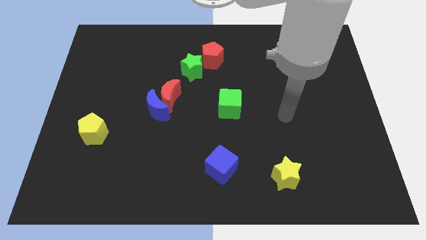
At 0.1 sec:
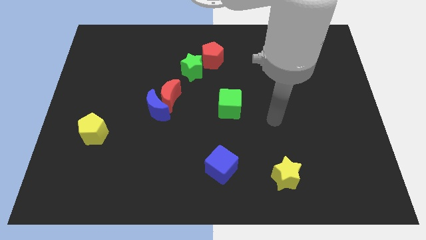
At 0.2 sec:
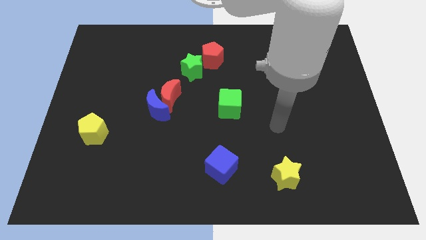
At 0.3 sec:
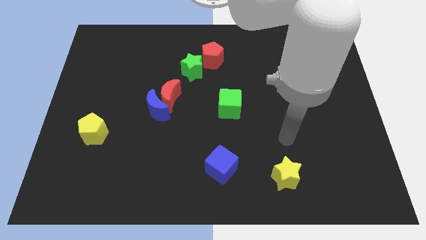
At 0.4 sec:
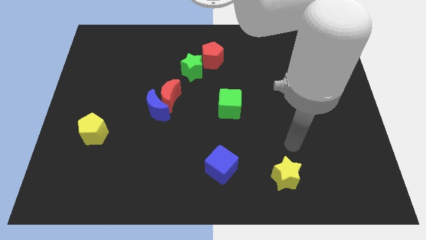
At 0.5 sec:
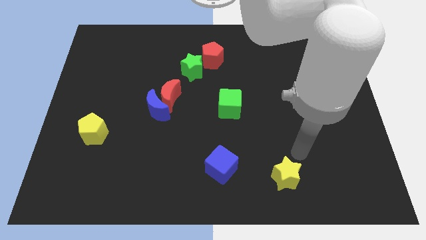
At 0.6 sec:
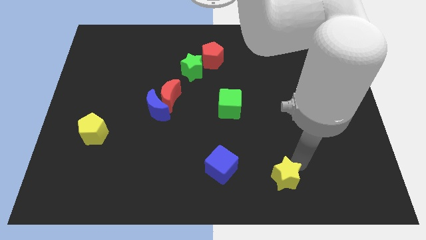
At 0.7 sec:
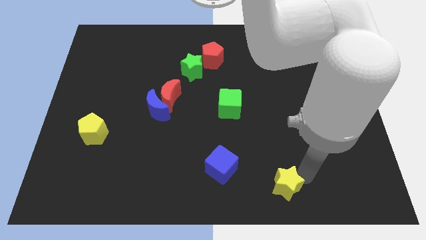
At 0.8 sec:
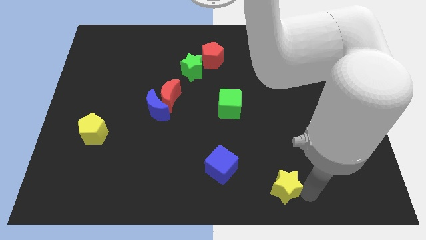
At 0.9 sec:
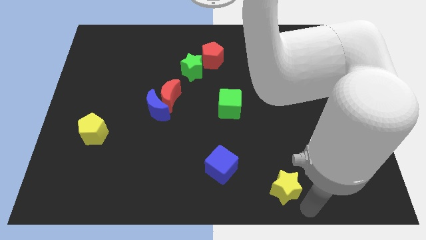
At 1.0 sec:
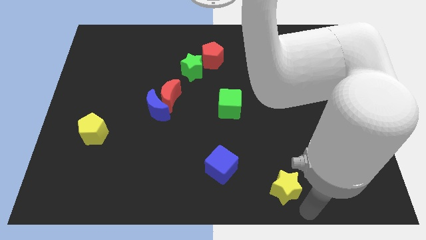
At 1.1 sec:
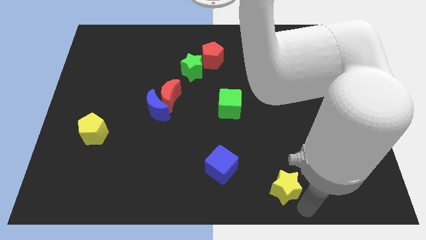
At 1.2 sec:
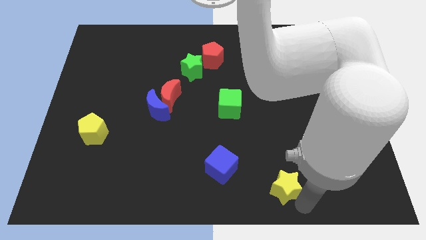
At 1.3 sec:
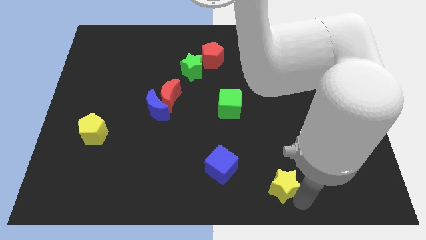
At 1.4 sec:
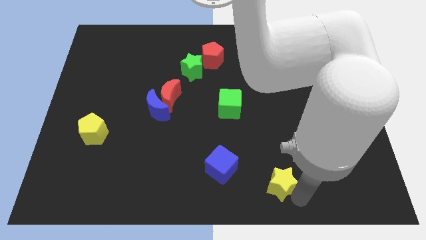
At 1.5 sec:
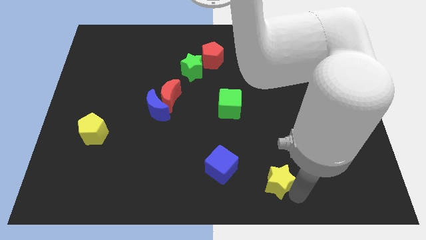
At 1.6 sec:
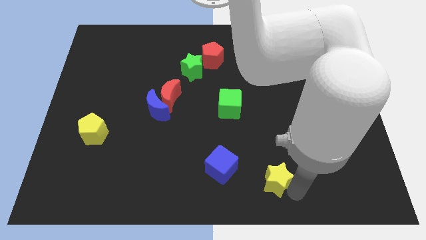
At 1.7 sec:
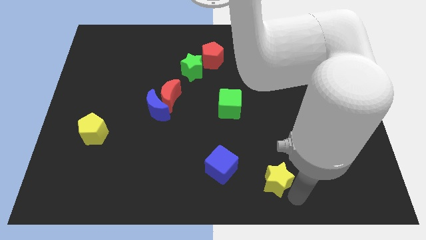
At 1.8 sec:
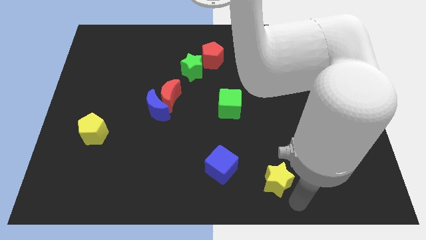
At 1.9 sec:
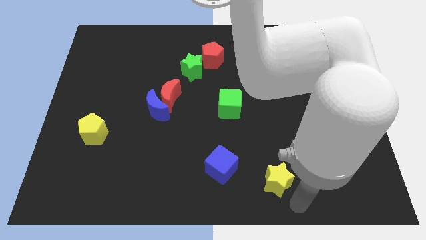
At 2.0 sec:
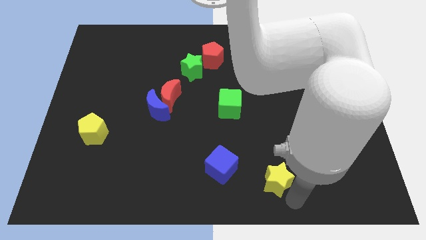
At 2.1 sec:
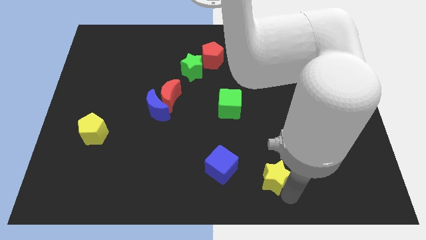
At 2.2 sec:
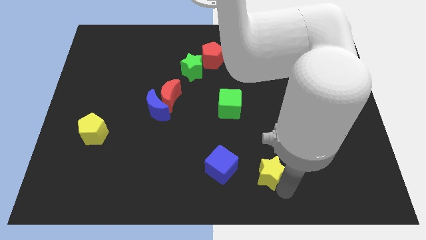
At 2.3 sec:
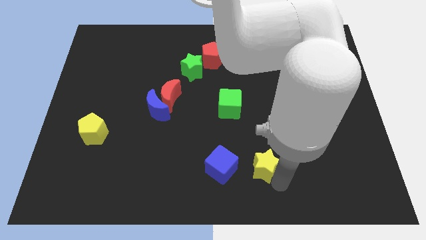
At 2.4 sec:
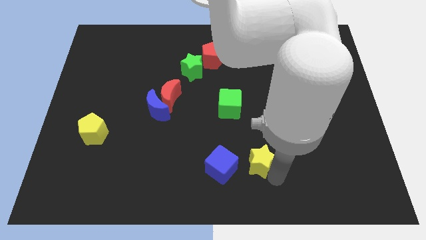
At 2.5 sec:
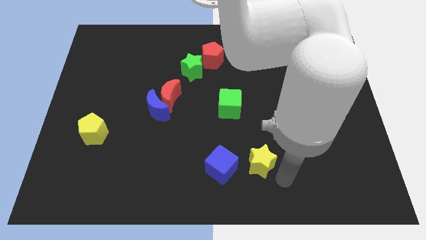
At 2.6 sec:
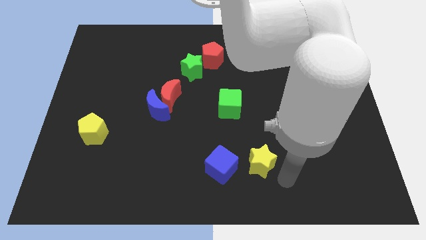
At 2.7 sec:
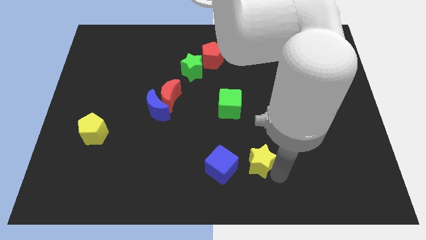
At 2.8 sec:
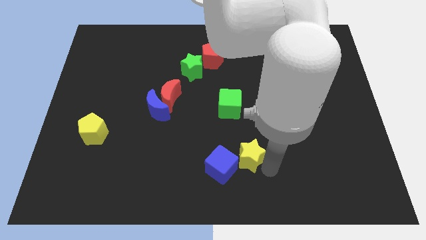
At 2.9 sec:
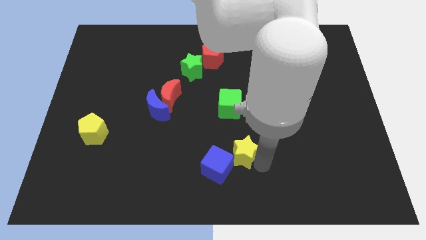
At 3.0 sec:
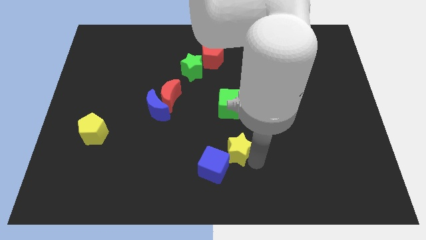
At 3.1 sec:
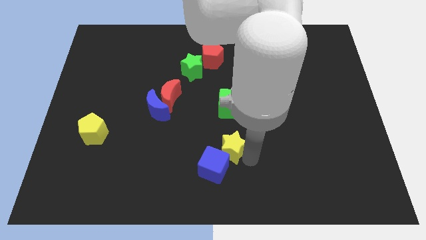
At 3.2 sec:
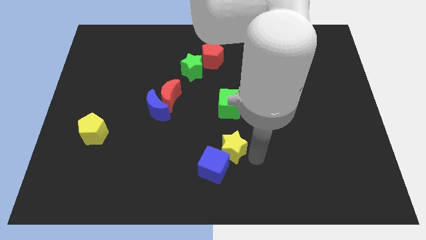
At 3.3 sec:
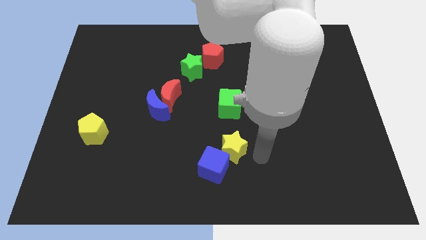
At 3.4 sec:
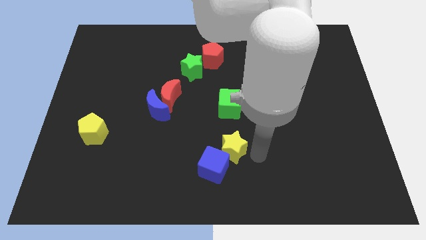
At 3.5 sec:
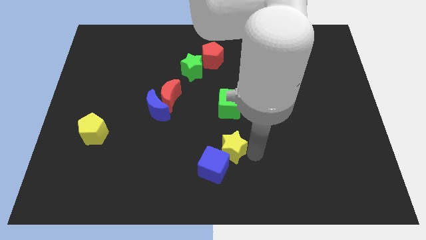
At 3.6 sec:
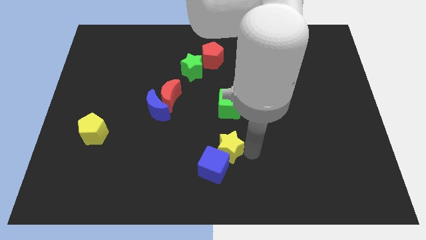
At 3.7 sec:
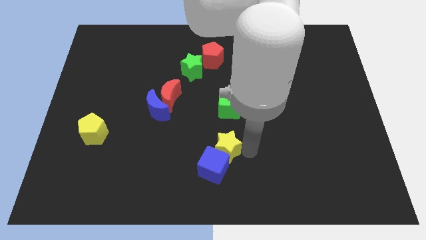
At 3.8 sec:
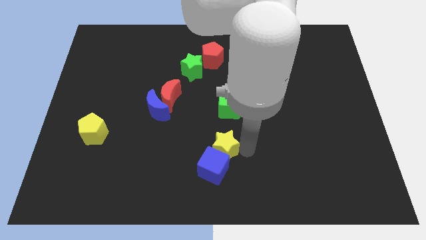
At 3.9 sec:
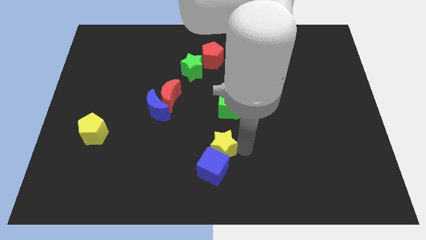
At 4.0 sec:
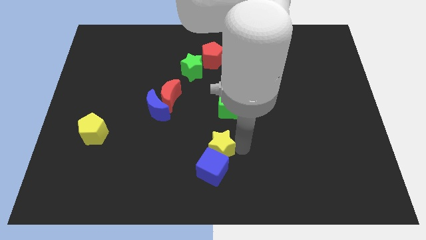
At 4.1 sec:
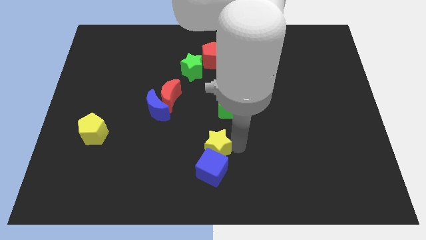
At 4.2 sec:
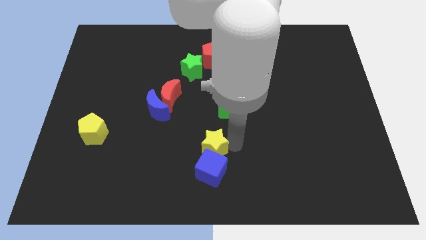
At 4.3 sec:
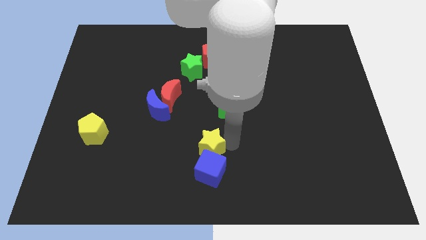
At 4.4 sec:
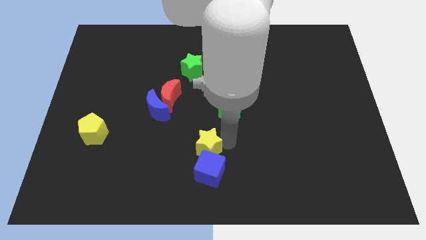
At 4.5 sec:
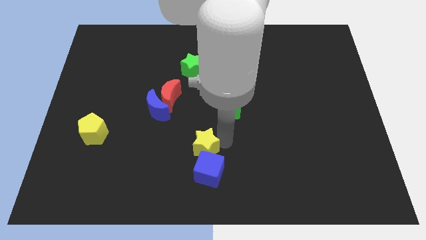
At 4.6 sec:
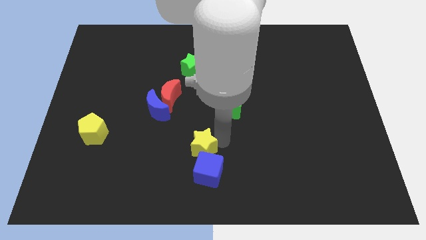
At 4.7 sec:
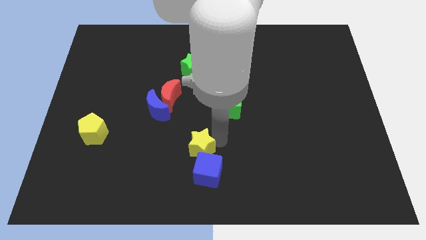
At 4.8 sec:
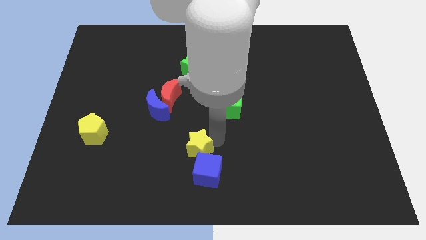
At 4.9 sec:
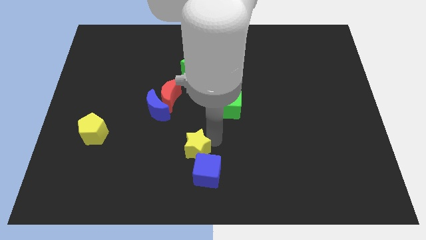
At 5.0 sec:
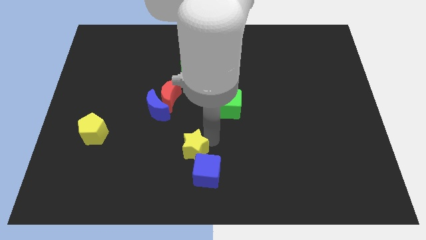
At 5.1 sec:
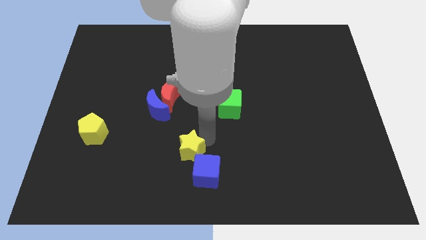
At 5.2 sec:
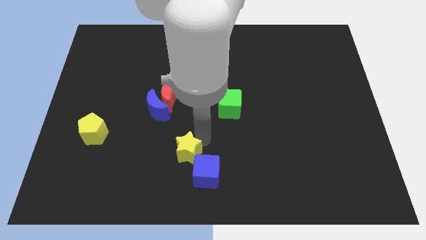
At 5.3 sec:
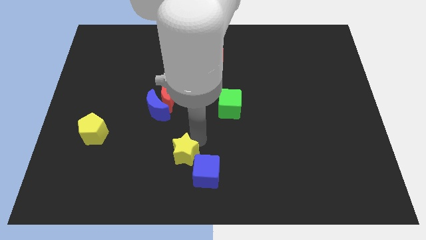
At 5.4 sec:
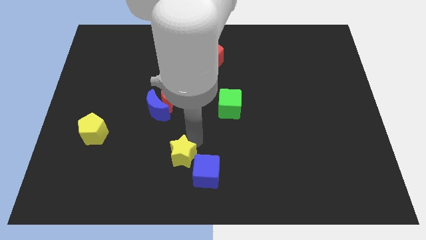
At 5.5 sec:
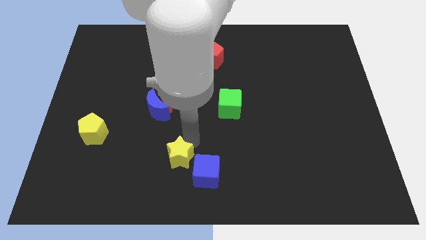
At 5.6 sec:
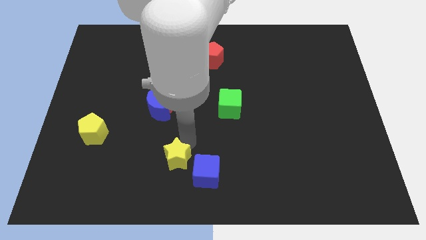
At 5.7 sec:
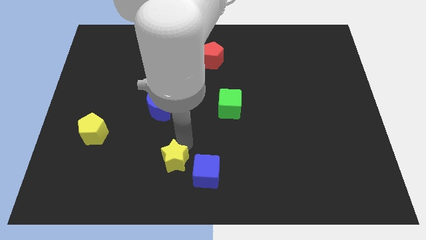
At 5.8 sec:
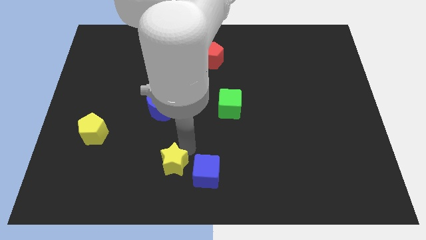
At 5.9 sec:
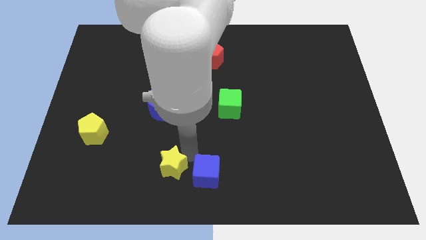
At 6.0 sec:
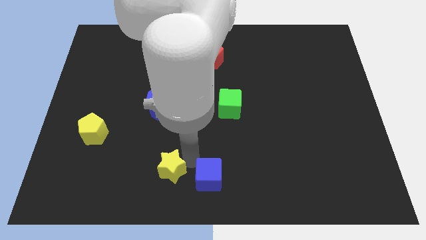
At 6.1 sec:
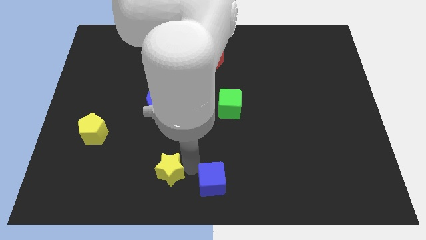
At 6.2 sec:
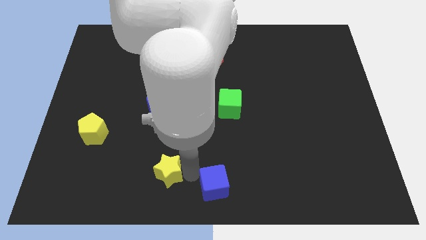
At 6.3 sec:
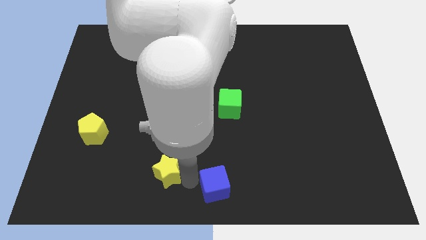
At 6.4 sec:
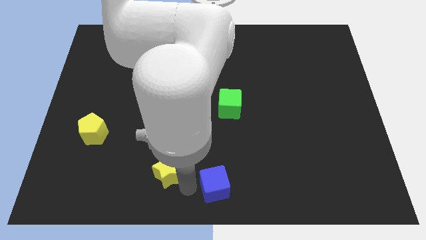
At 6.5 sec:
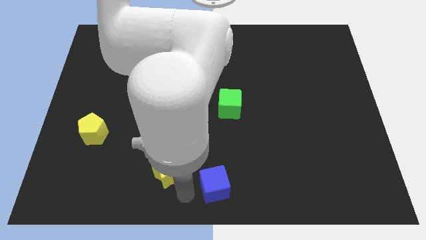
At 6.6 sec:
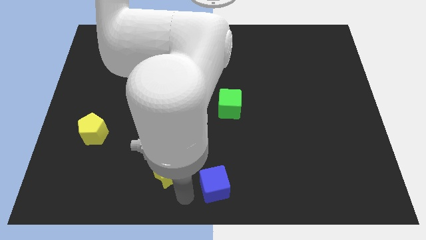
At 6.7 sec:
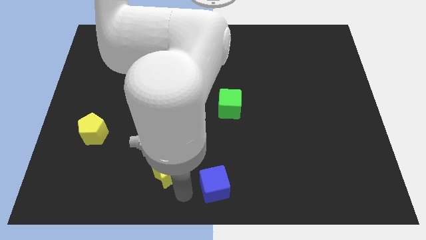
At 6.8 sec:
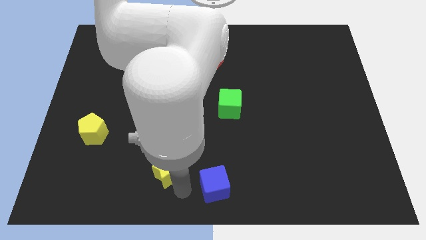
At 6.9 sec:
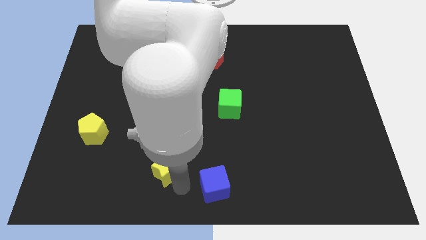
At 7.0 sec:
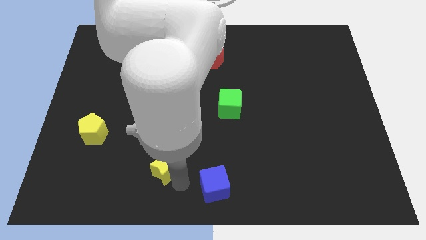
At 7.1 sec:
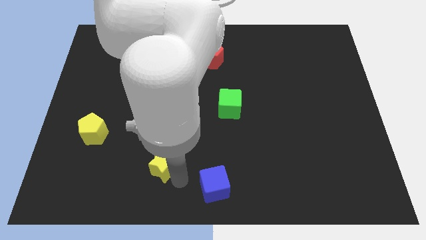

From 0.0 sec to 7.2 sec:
put the yellow star below the blue moon

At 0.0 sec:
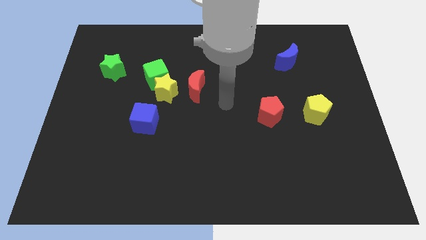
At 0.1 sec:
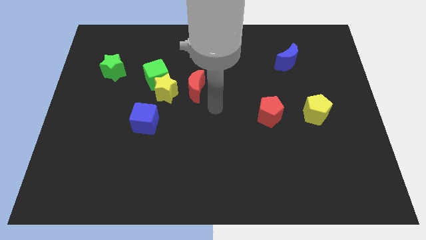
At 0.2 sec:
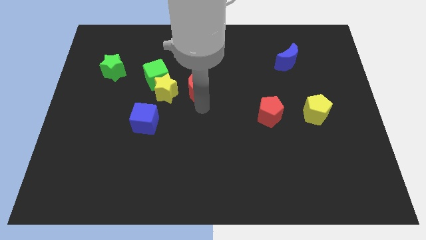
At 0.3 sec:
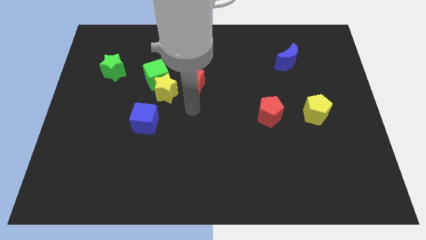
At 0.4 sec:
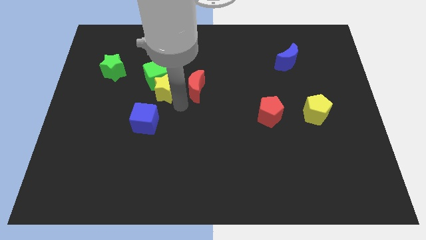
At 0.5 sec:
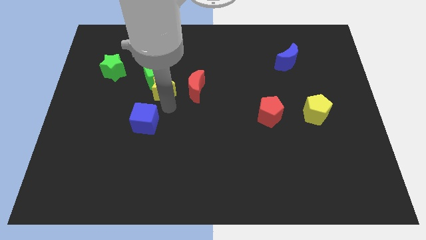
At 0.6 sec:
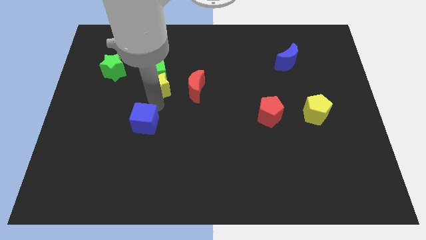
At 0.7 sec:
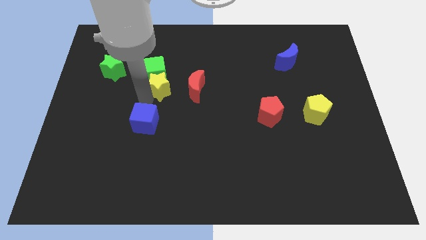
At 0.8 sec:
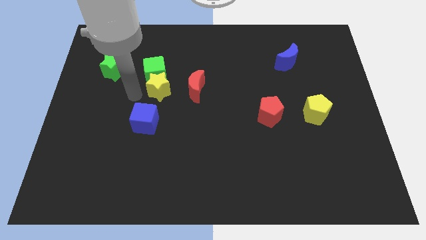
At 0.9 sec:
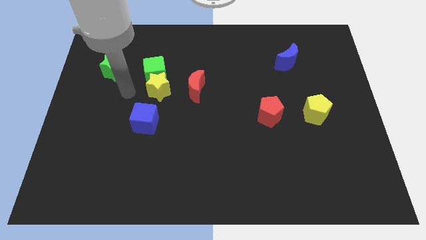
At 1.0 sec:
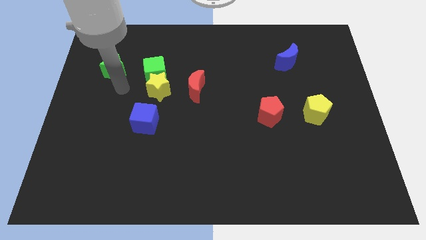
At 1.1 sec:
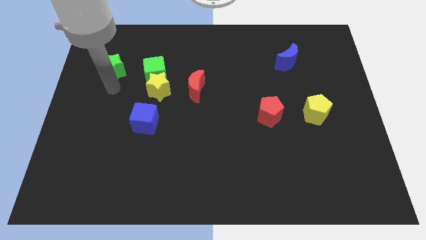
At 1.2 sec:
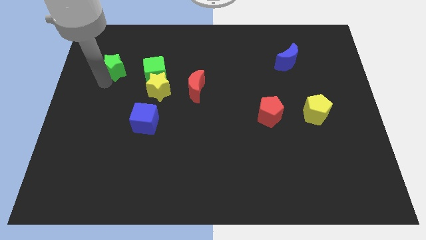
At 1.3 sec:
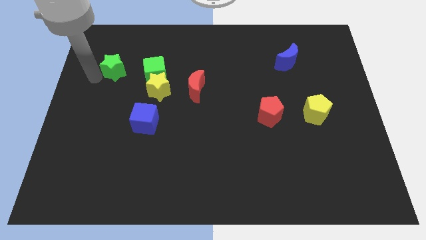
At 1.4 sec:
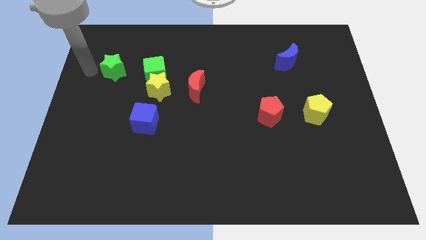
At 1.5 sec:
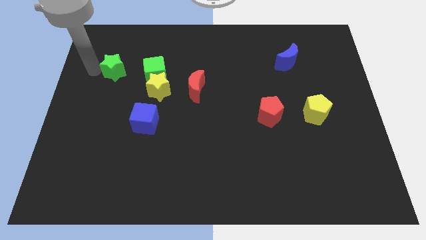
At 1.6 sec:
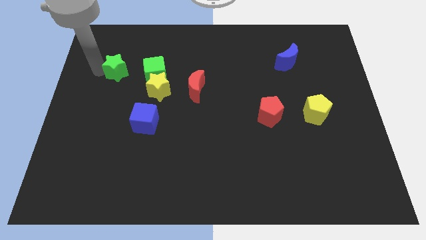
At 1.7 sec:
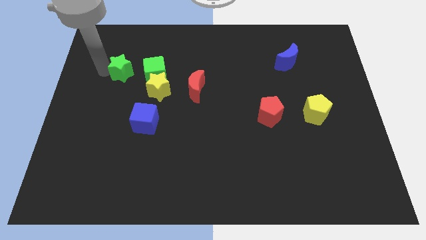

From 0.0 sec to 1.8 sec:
move the green star to the top left side of the yellow star
